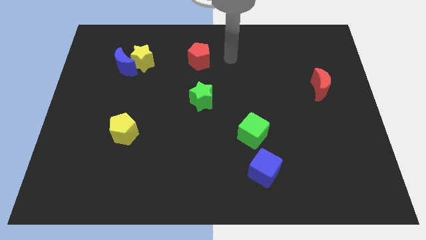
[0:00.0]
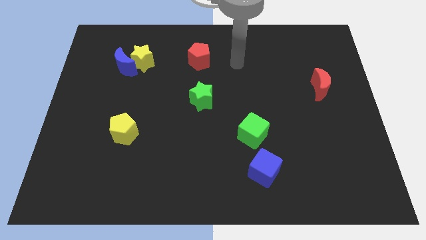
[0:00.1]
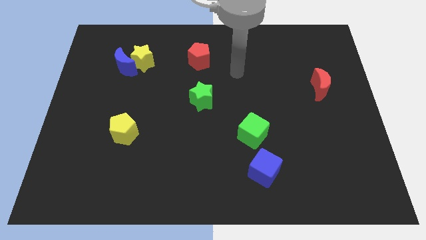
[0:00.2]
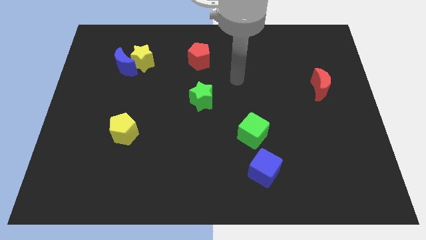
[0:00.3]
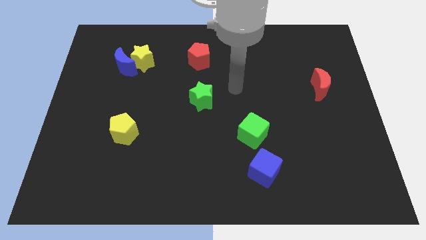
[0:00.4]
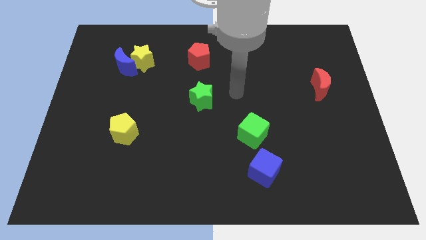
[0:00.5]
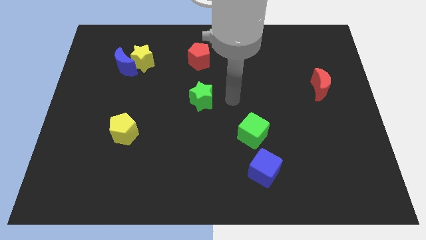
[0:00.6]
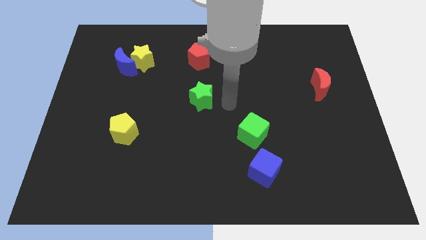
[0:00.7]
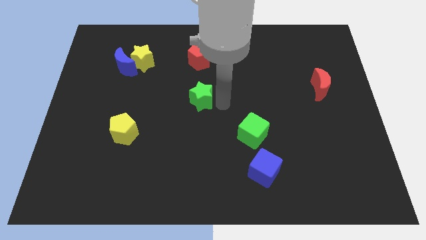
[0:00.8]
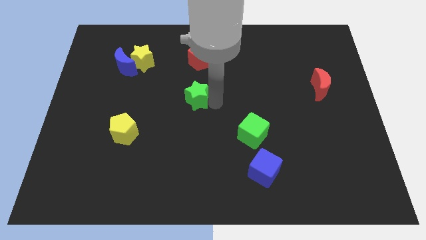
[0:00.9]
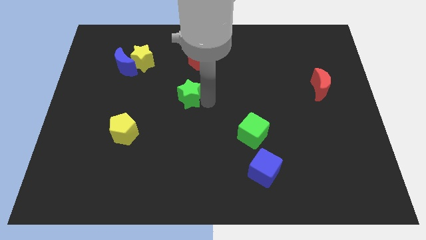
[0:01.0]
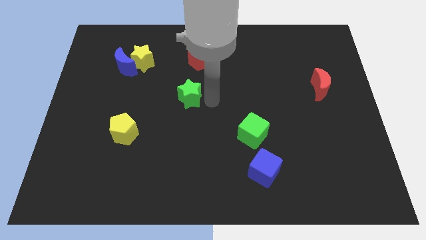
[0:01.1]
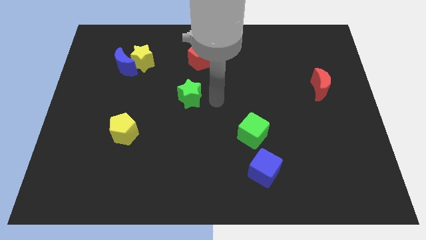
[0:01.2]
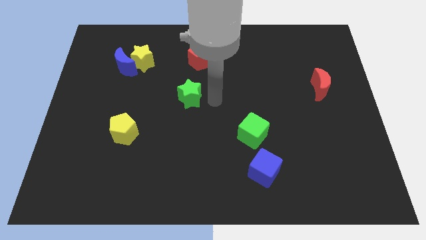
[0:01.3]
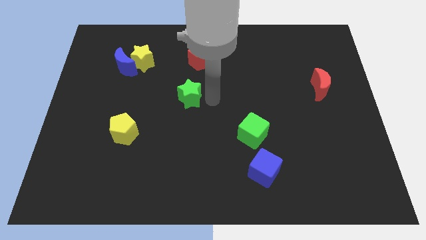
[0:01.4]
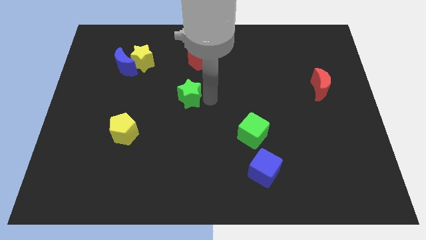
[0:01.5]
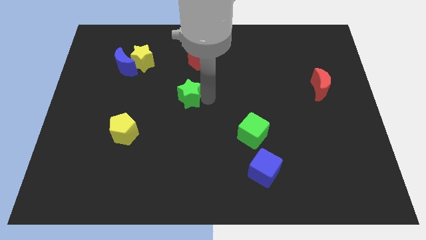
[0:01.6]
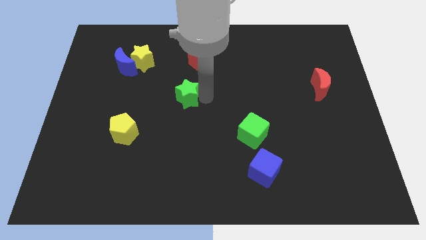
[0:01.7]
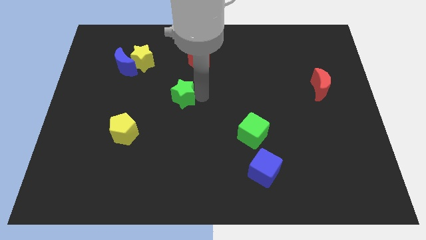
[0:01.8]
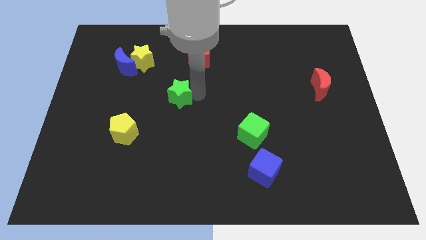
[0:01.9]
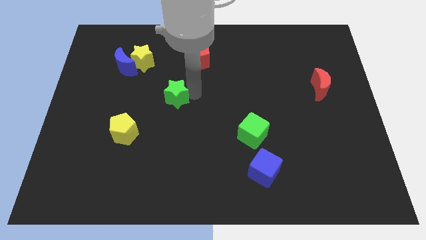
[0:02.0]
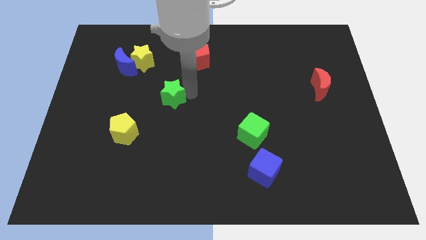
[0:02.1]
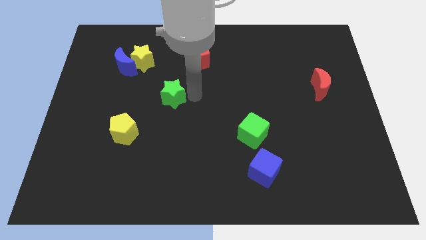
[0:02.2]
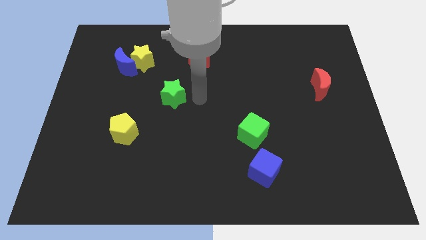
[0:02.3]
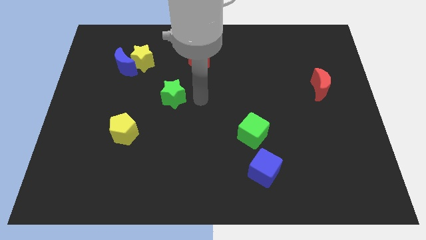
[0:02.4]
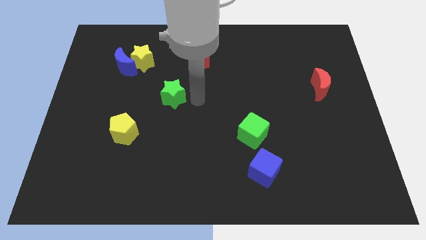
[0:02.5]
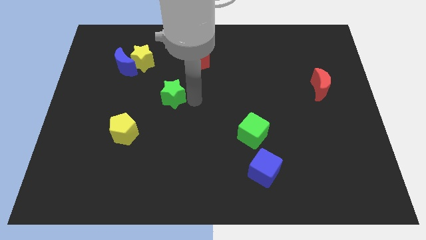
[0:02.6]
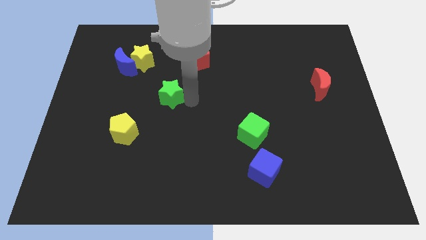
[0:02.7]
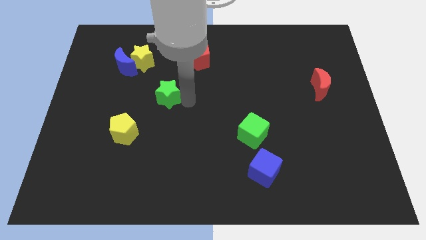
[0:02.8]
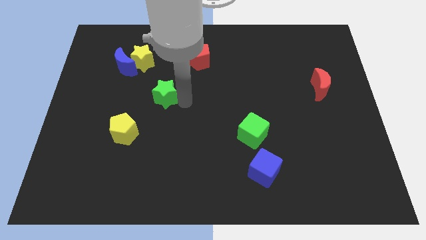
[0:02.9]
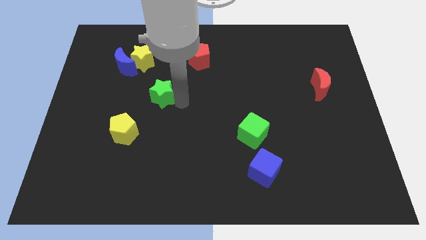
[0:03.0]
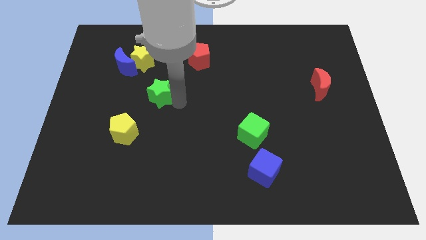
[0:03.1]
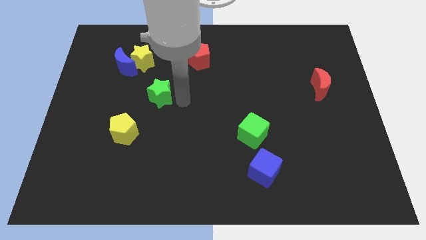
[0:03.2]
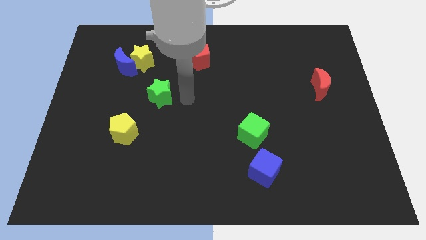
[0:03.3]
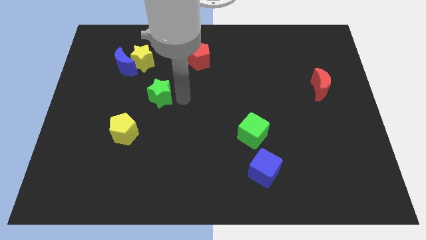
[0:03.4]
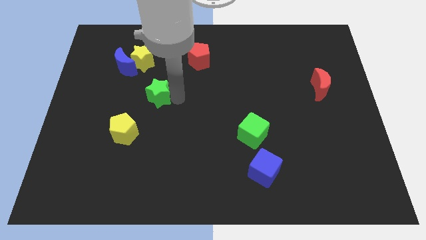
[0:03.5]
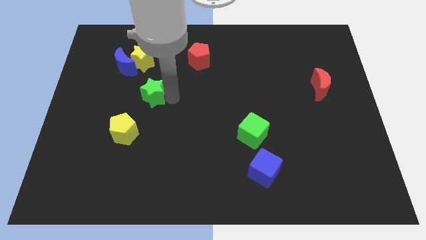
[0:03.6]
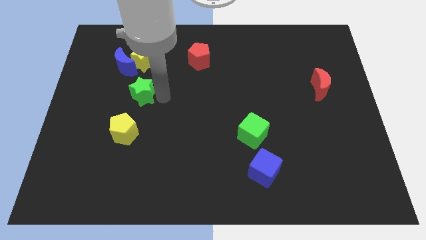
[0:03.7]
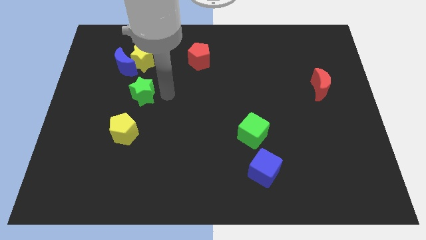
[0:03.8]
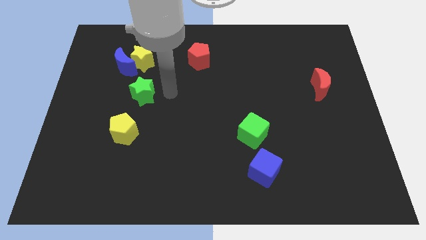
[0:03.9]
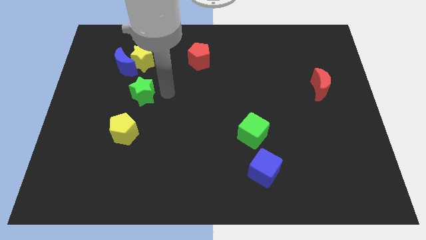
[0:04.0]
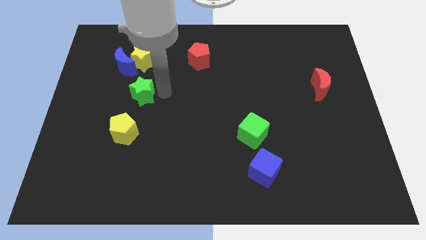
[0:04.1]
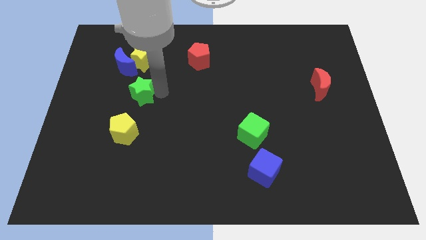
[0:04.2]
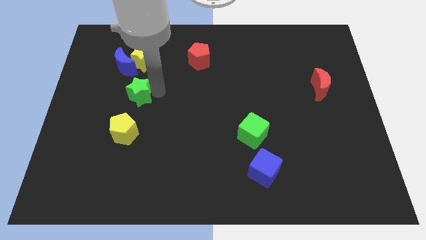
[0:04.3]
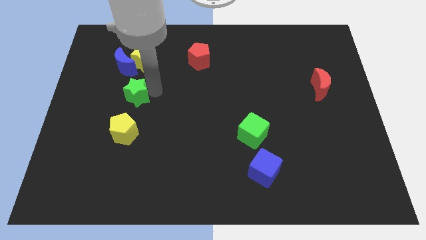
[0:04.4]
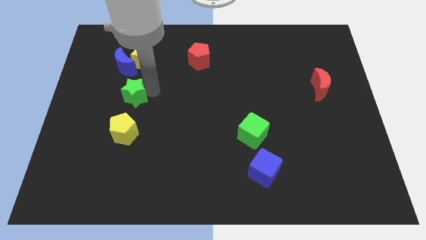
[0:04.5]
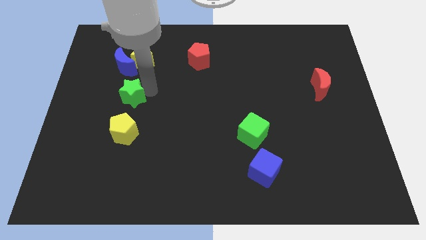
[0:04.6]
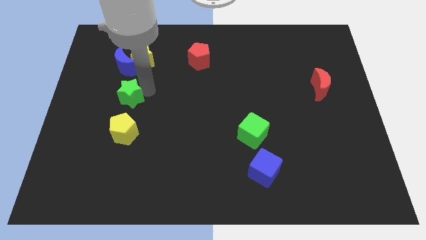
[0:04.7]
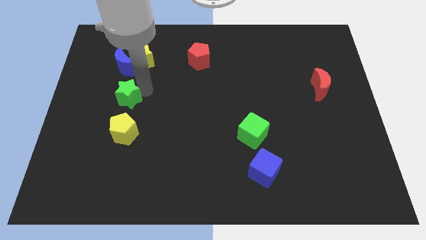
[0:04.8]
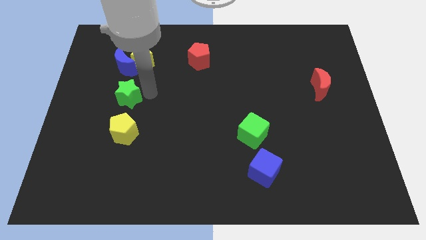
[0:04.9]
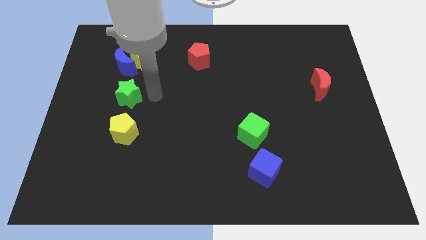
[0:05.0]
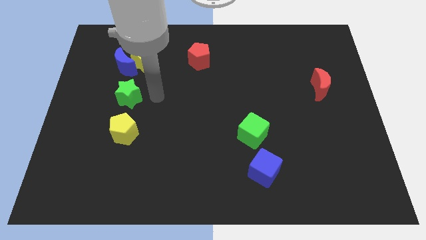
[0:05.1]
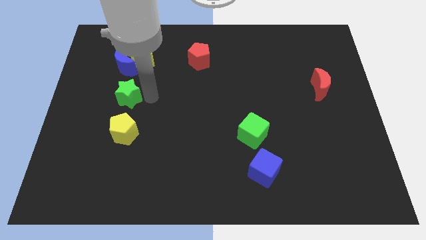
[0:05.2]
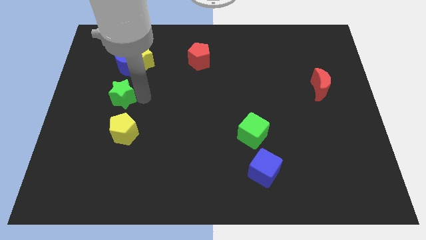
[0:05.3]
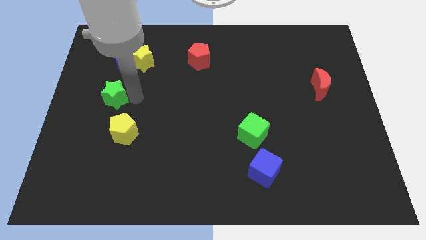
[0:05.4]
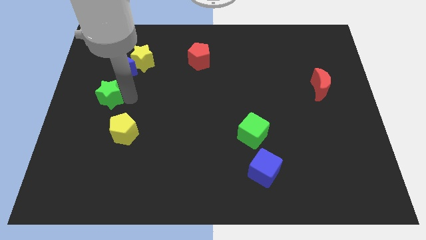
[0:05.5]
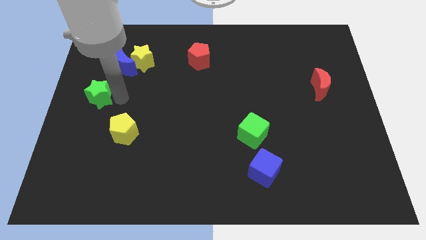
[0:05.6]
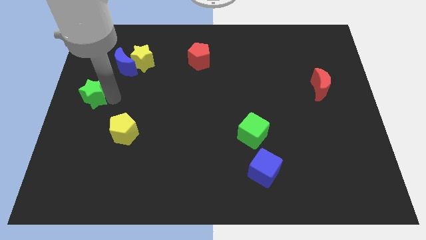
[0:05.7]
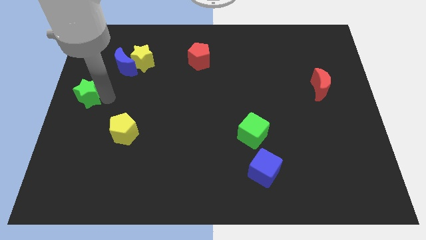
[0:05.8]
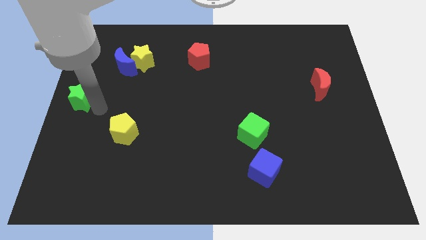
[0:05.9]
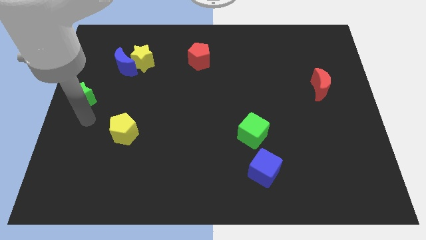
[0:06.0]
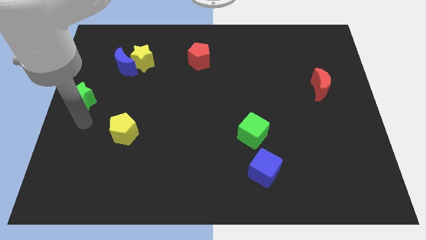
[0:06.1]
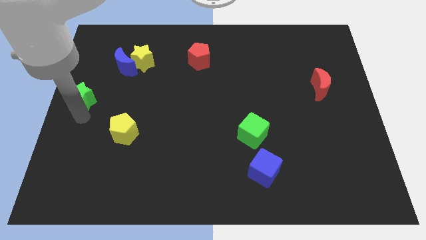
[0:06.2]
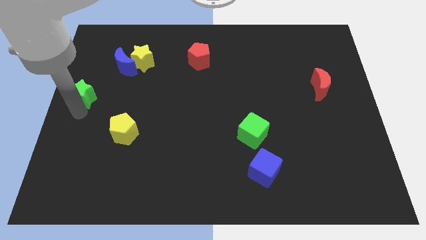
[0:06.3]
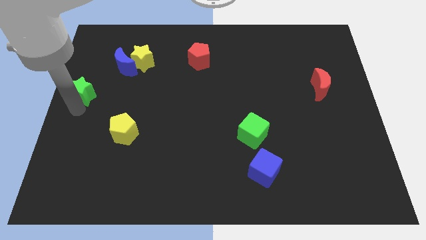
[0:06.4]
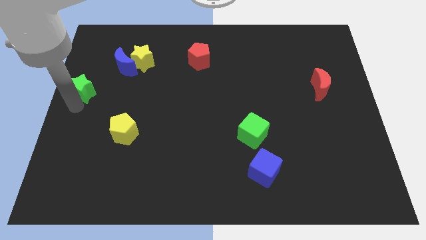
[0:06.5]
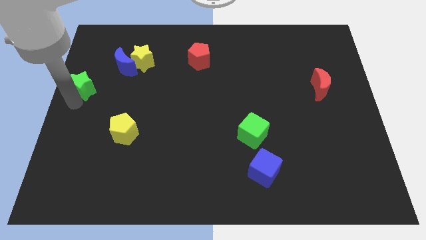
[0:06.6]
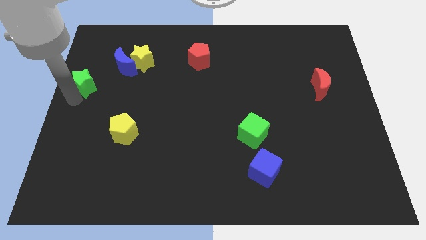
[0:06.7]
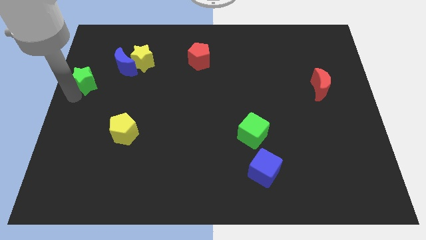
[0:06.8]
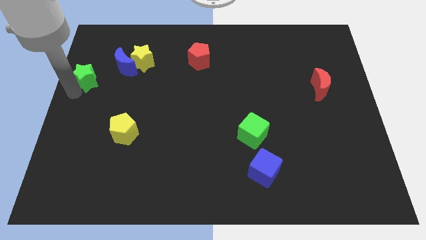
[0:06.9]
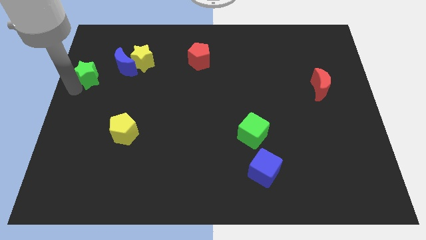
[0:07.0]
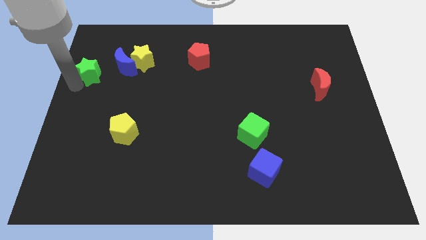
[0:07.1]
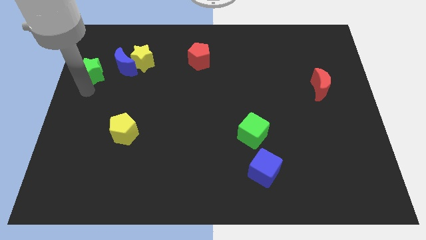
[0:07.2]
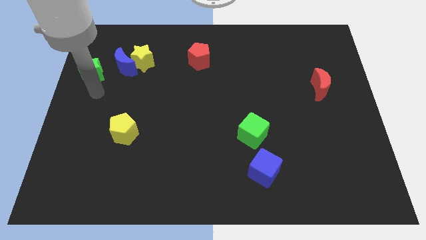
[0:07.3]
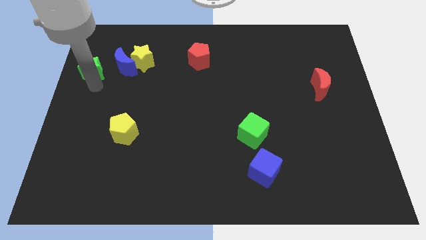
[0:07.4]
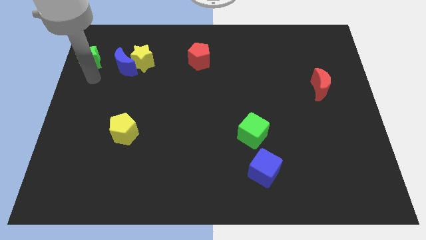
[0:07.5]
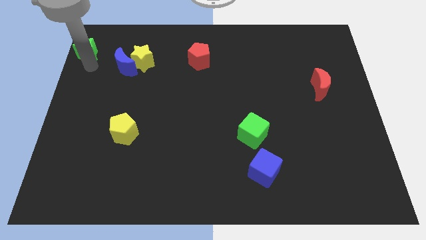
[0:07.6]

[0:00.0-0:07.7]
move the green star to the upper left corner
